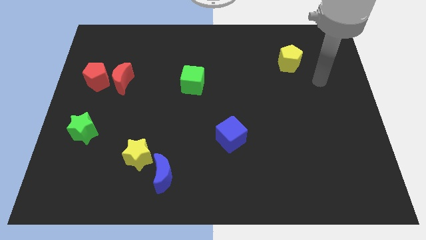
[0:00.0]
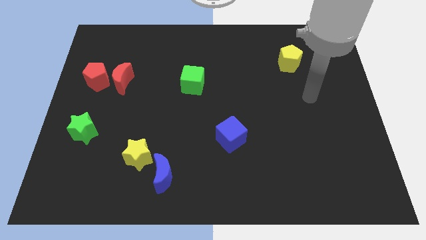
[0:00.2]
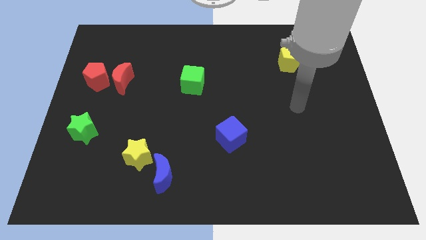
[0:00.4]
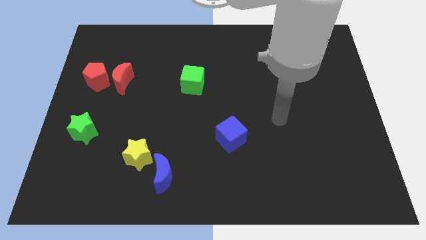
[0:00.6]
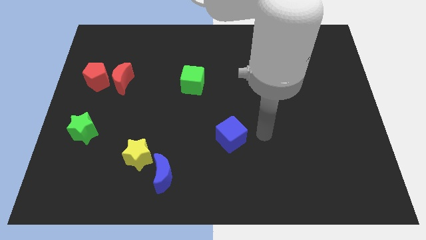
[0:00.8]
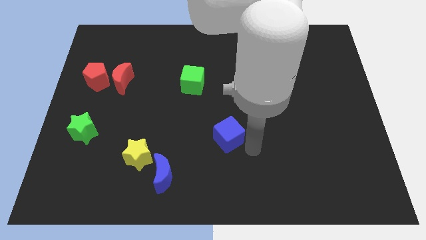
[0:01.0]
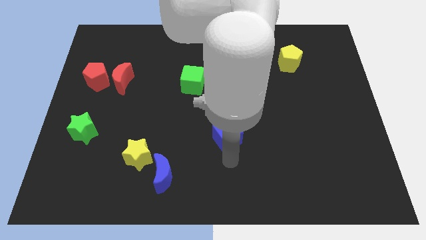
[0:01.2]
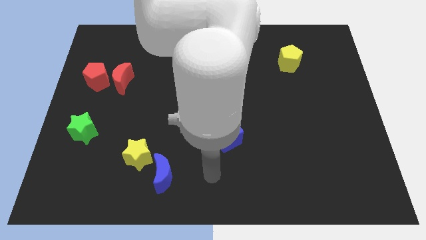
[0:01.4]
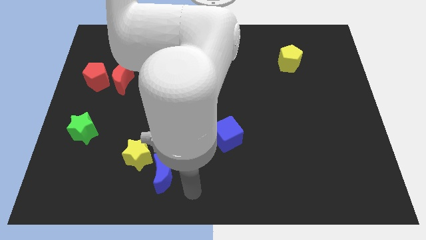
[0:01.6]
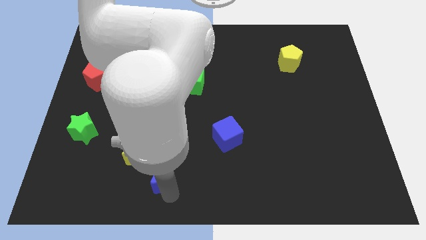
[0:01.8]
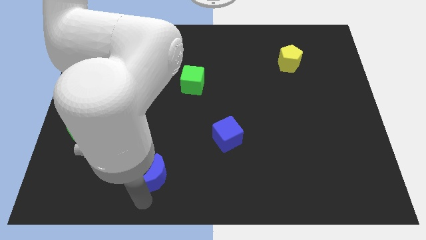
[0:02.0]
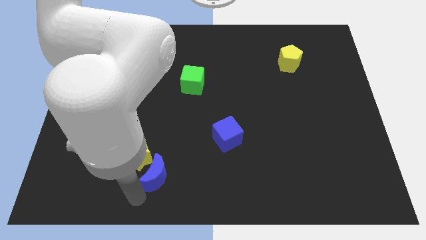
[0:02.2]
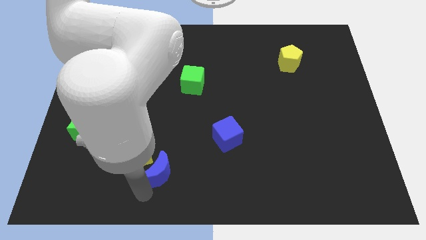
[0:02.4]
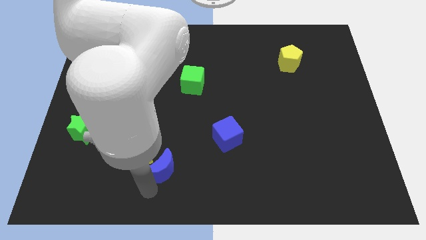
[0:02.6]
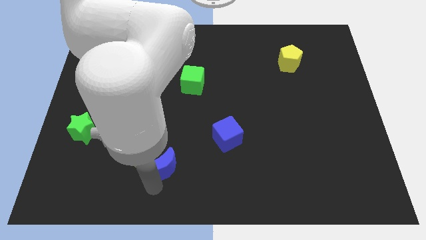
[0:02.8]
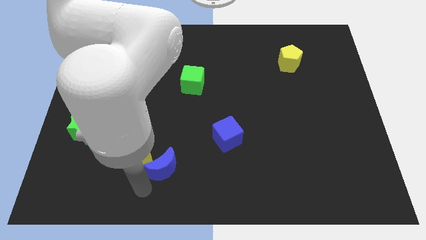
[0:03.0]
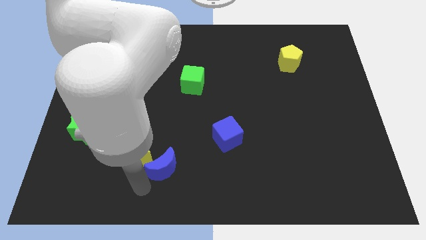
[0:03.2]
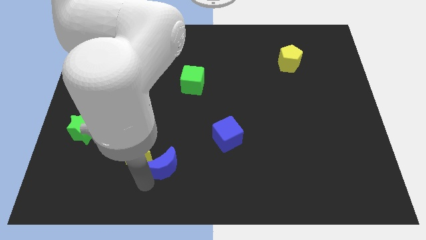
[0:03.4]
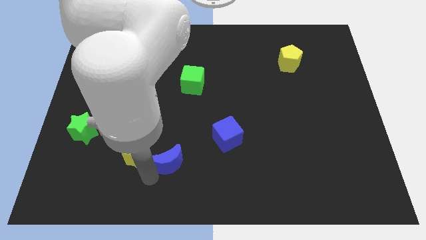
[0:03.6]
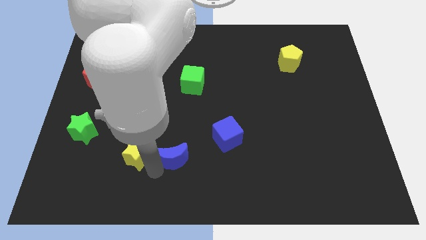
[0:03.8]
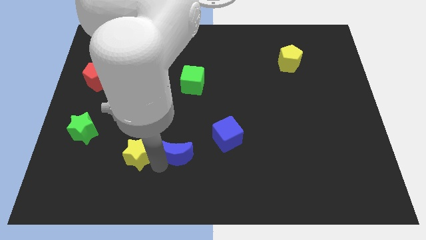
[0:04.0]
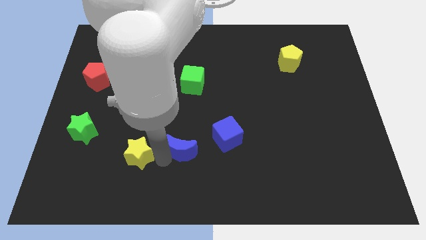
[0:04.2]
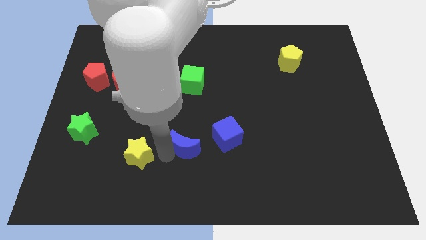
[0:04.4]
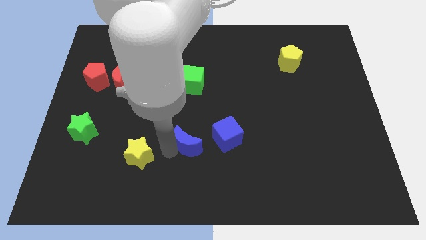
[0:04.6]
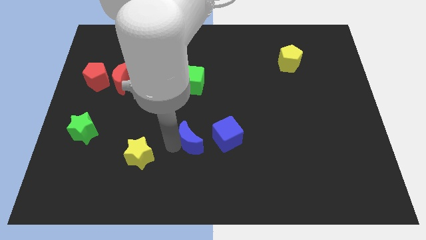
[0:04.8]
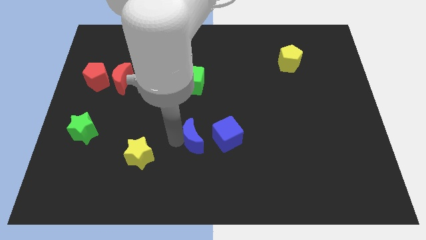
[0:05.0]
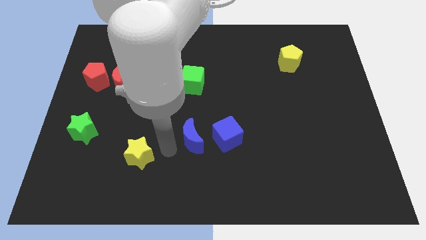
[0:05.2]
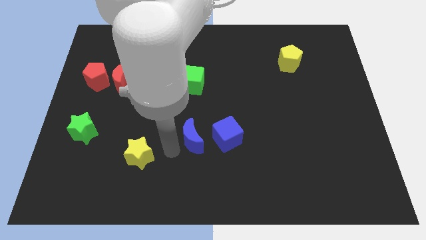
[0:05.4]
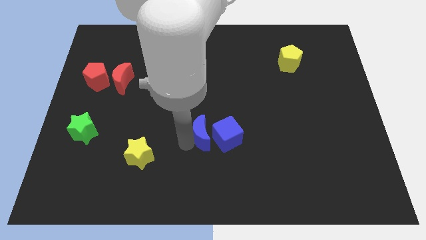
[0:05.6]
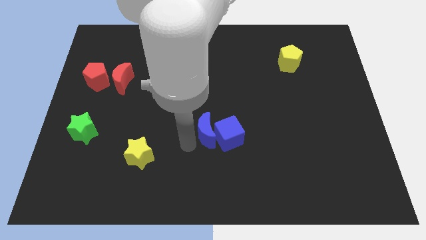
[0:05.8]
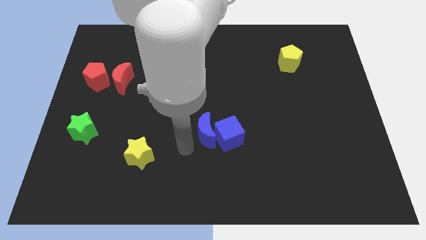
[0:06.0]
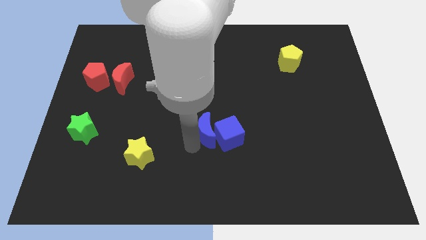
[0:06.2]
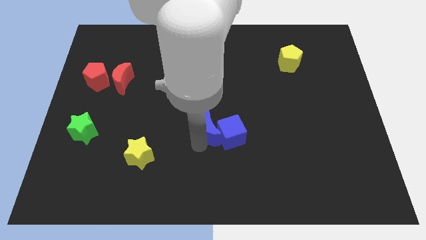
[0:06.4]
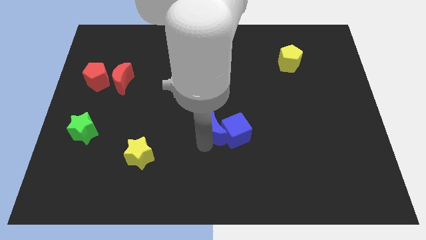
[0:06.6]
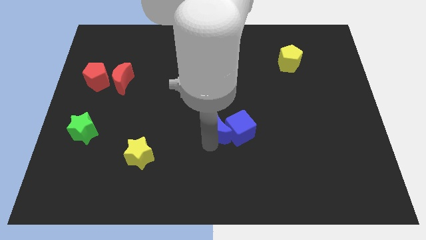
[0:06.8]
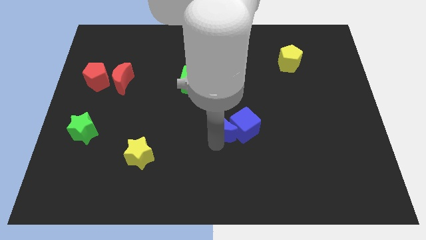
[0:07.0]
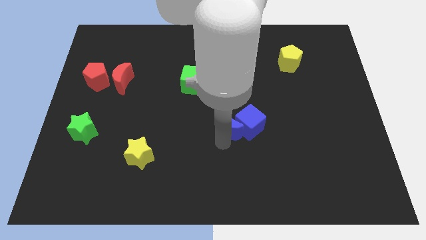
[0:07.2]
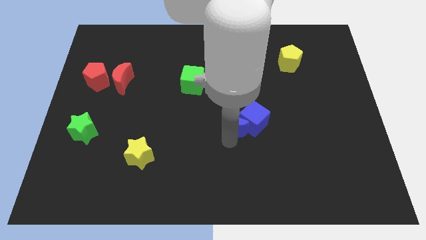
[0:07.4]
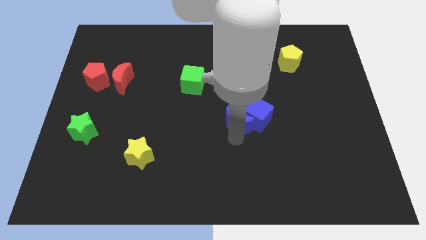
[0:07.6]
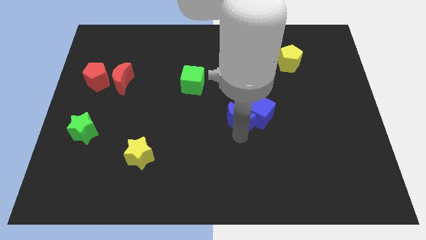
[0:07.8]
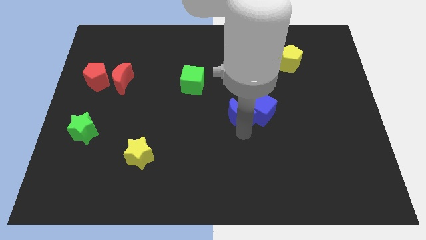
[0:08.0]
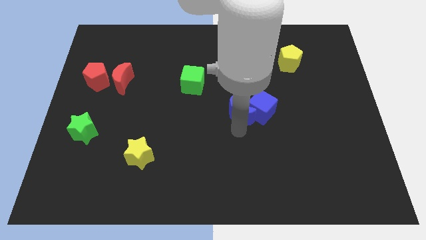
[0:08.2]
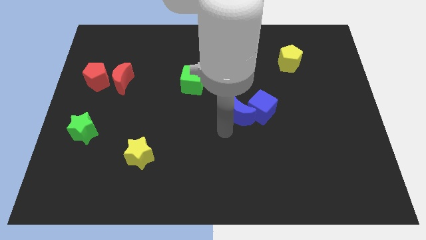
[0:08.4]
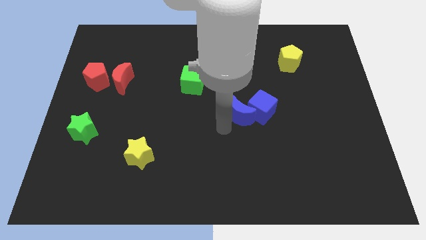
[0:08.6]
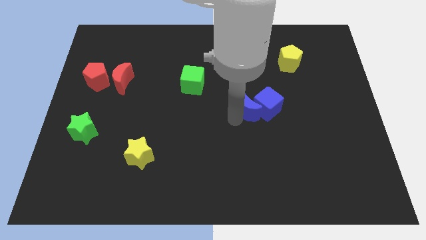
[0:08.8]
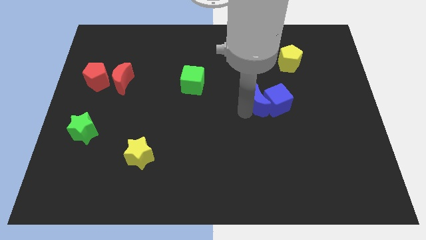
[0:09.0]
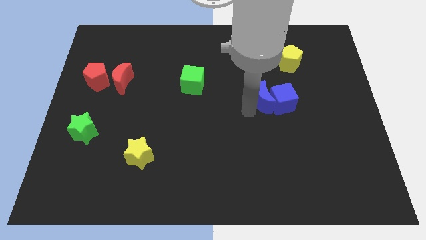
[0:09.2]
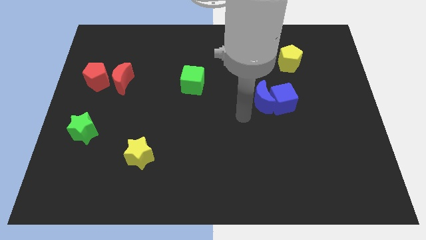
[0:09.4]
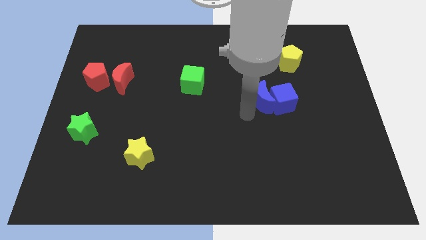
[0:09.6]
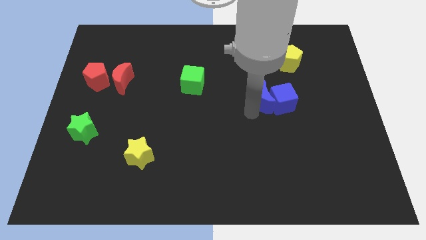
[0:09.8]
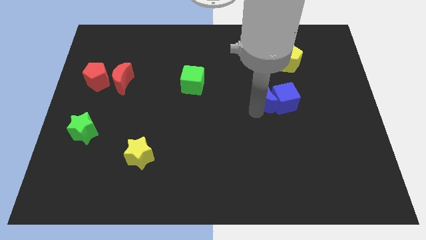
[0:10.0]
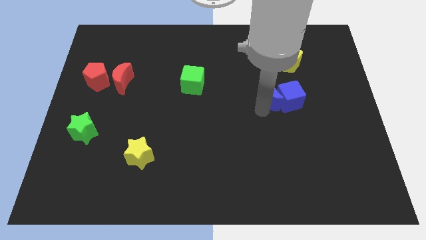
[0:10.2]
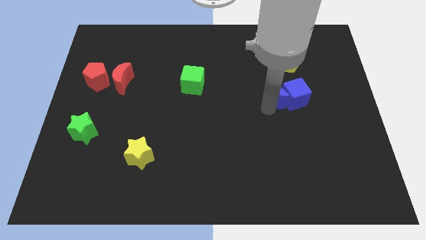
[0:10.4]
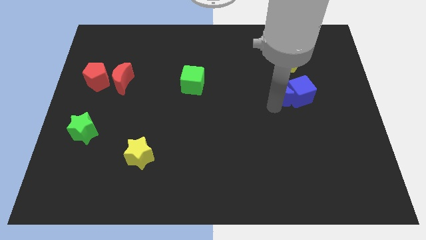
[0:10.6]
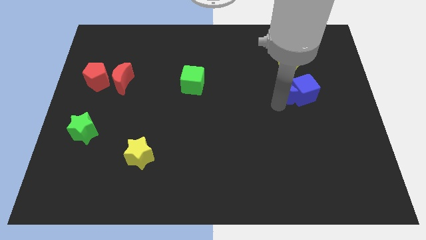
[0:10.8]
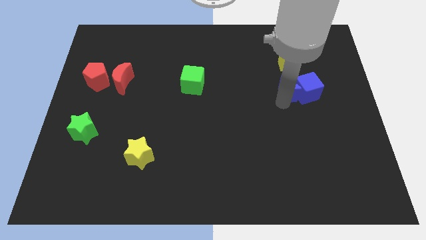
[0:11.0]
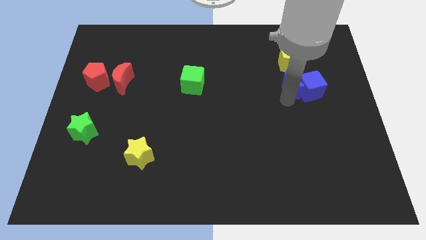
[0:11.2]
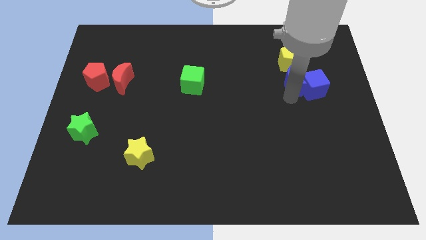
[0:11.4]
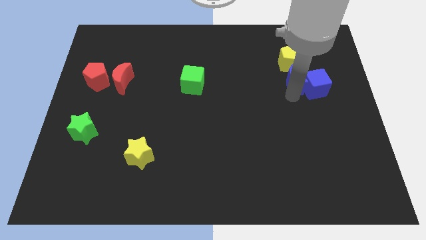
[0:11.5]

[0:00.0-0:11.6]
put the blue moon to the bottom right of the yellow pentagon

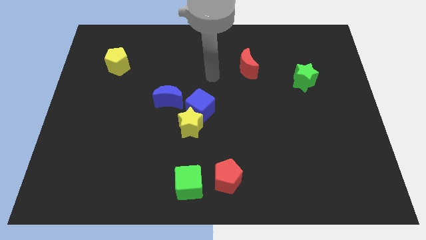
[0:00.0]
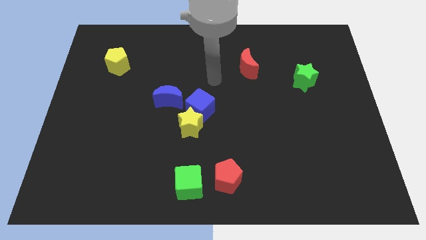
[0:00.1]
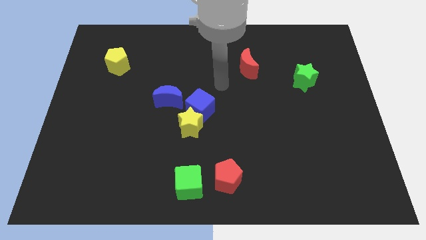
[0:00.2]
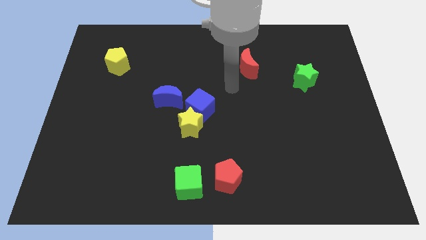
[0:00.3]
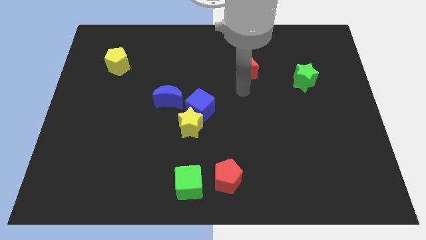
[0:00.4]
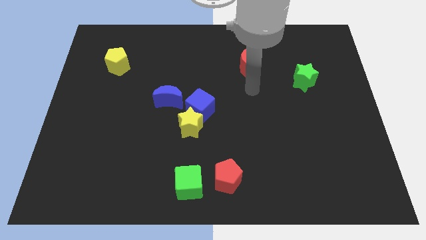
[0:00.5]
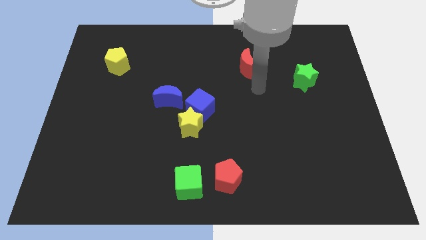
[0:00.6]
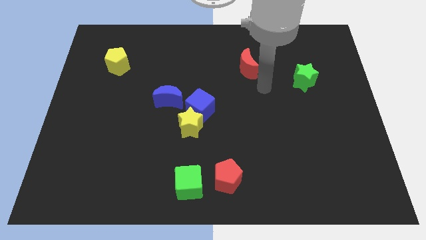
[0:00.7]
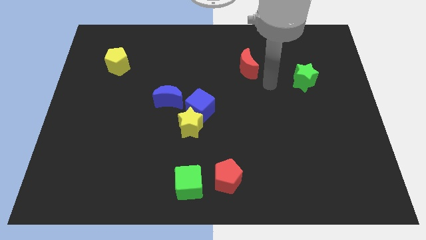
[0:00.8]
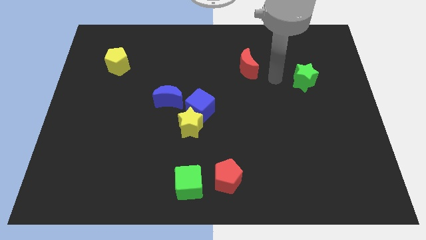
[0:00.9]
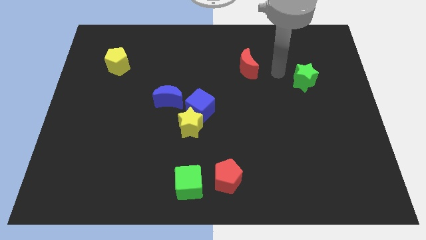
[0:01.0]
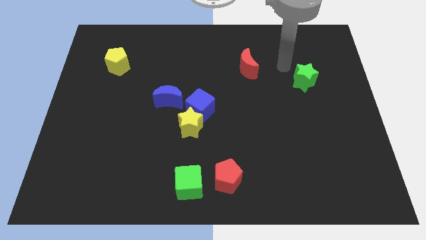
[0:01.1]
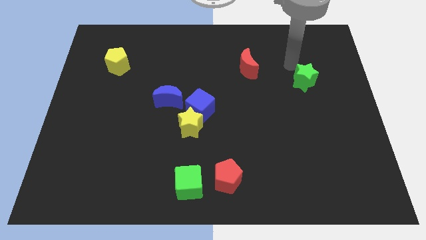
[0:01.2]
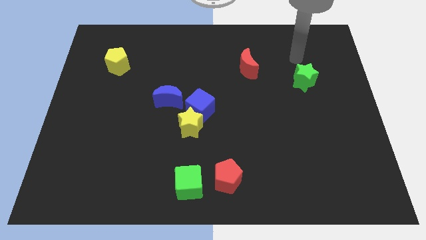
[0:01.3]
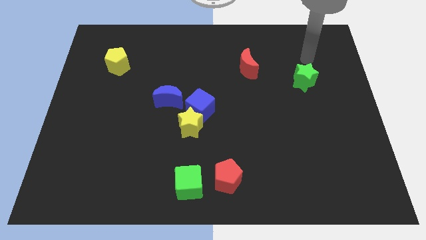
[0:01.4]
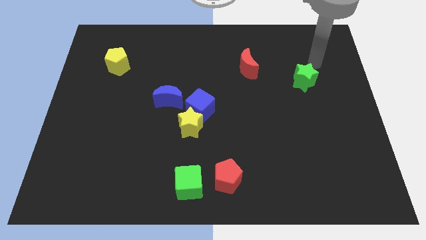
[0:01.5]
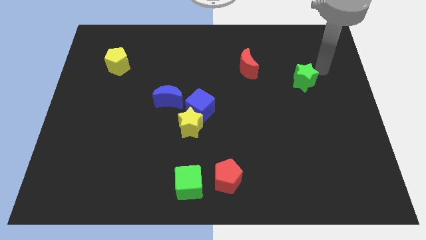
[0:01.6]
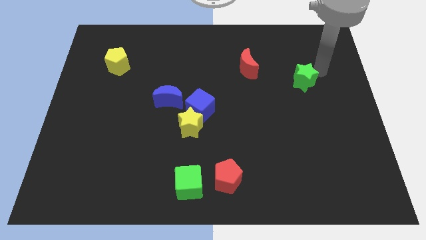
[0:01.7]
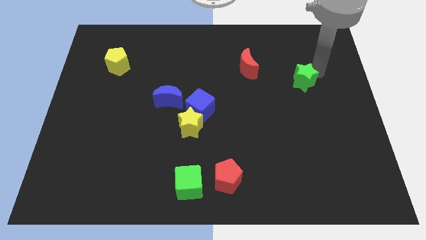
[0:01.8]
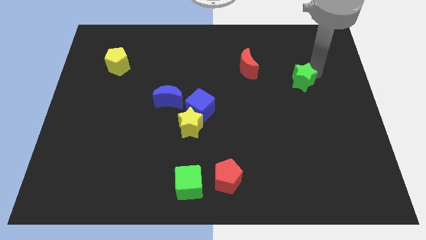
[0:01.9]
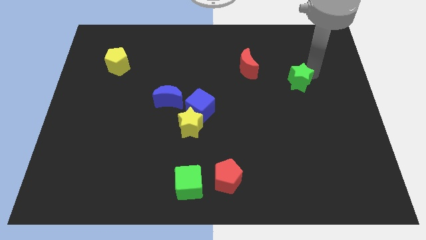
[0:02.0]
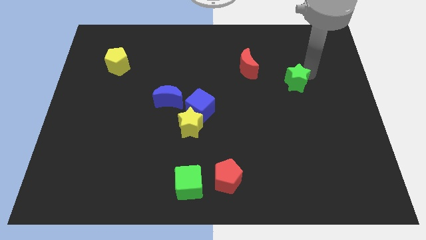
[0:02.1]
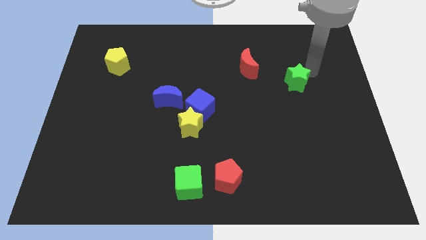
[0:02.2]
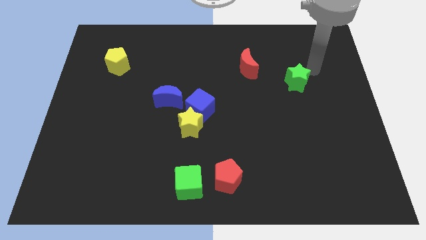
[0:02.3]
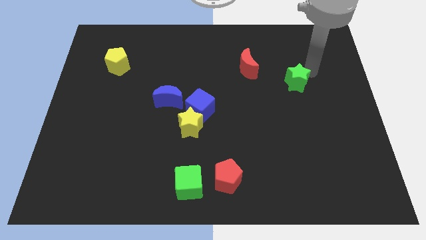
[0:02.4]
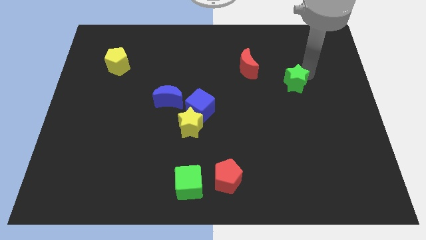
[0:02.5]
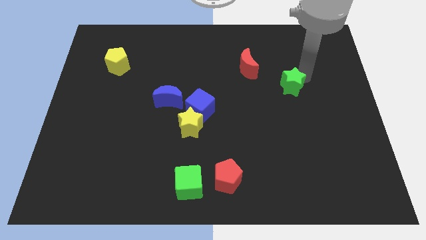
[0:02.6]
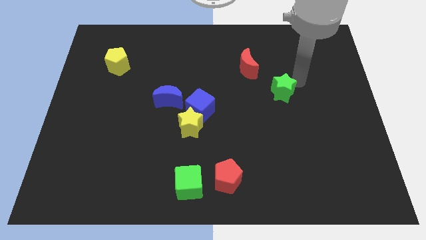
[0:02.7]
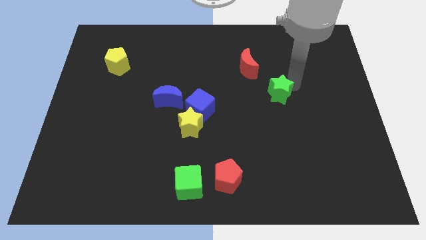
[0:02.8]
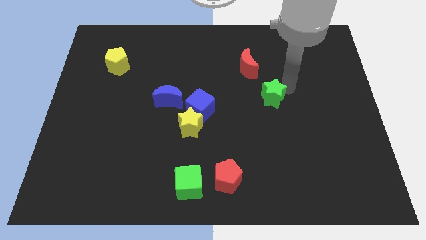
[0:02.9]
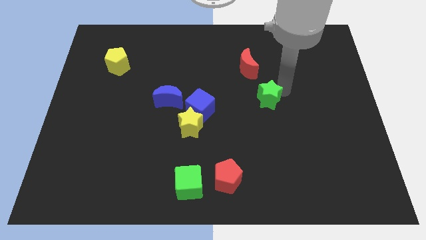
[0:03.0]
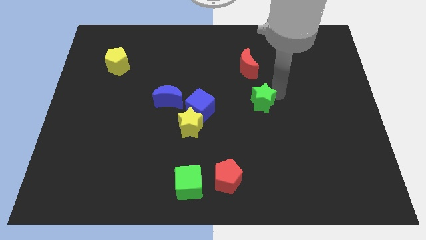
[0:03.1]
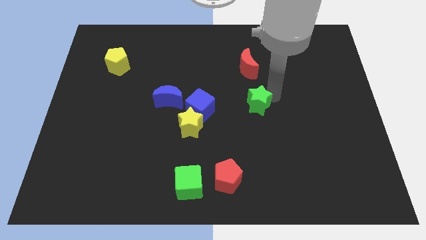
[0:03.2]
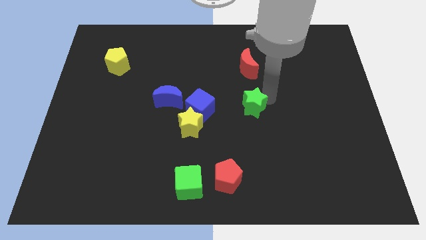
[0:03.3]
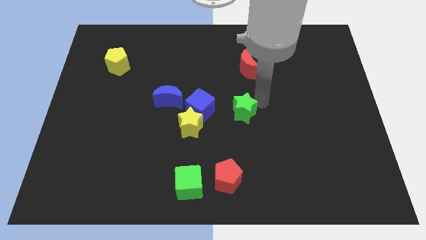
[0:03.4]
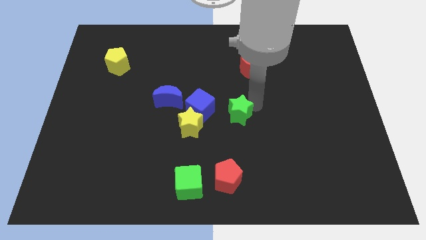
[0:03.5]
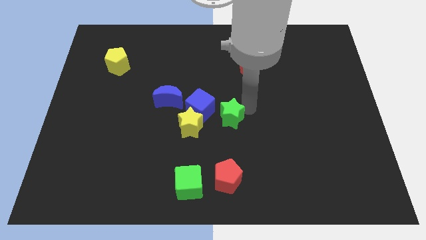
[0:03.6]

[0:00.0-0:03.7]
put the green star to the bottom right side of the blue cube
